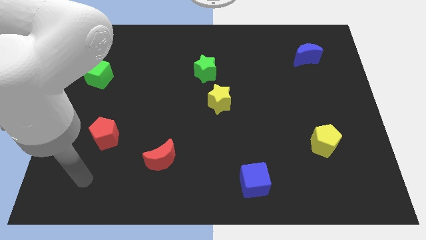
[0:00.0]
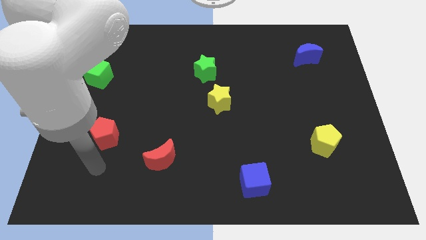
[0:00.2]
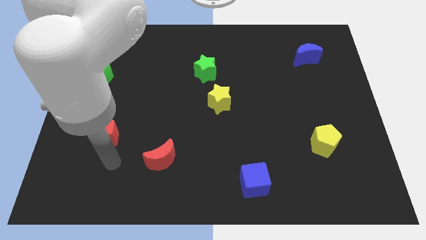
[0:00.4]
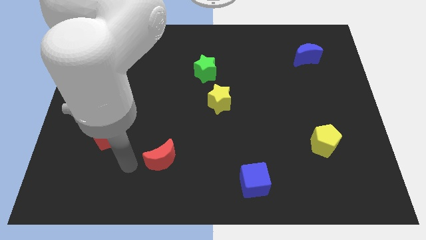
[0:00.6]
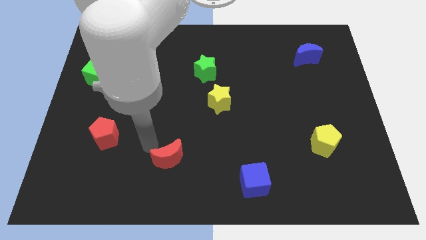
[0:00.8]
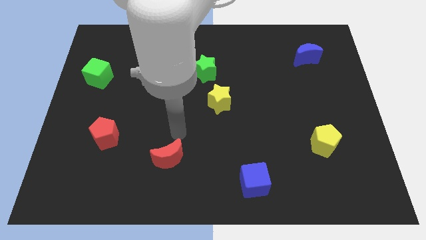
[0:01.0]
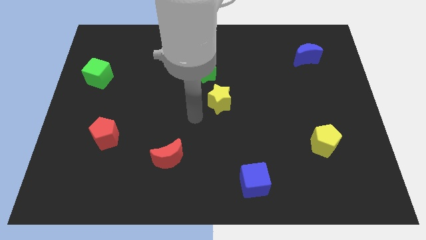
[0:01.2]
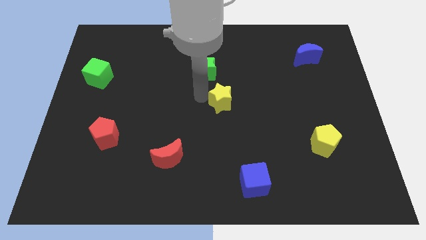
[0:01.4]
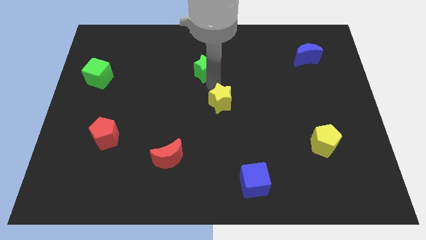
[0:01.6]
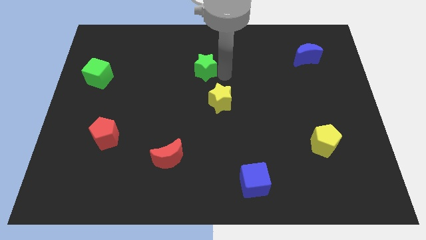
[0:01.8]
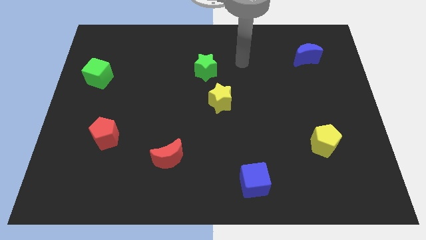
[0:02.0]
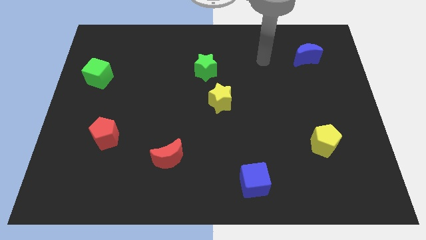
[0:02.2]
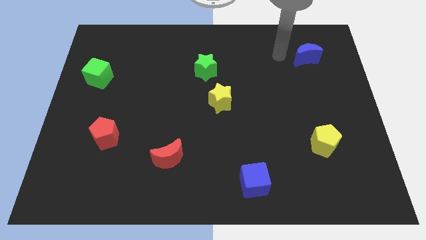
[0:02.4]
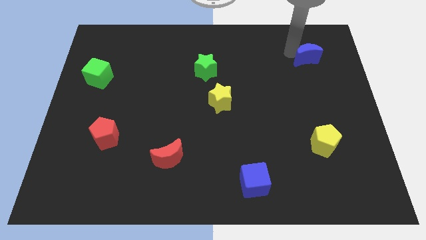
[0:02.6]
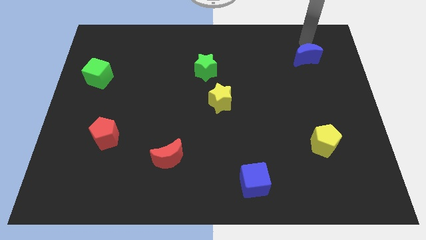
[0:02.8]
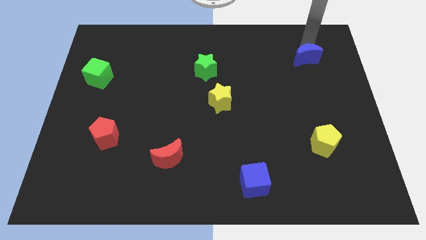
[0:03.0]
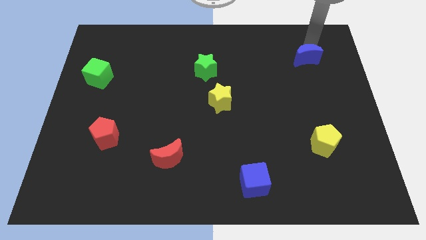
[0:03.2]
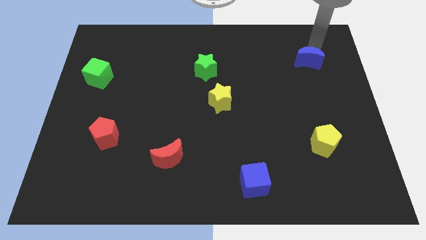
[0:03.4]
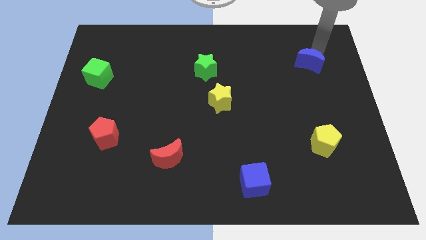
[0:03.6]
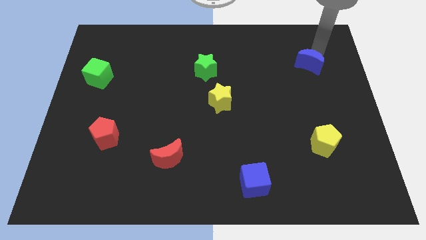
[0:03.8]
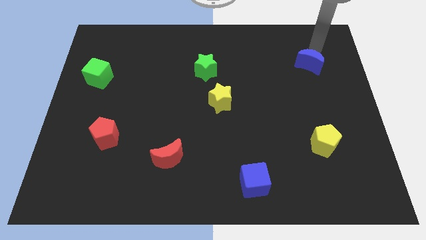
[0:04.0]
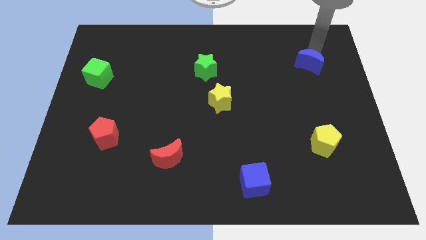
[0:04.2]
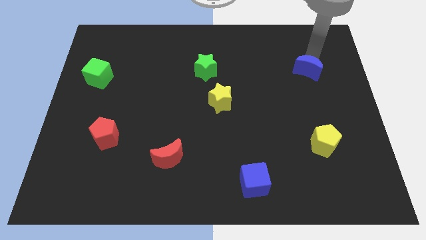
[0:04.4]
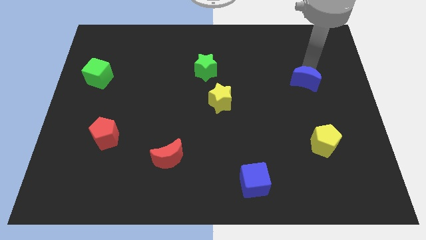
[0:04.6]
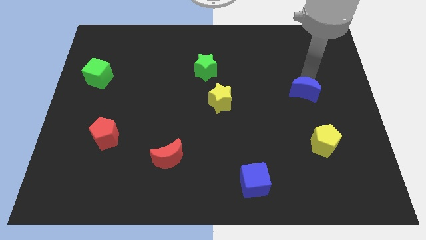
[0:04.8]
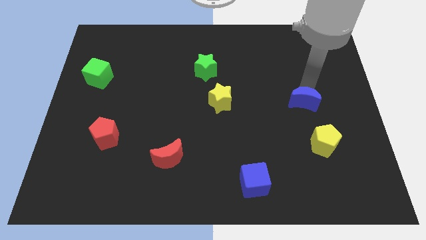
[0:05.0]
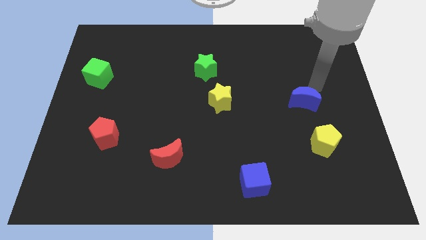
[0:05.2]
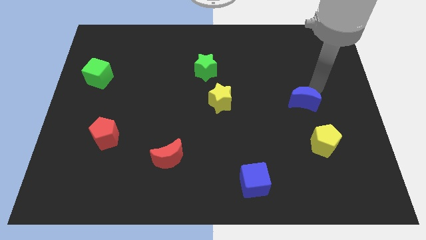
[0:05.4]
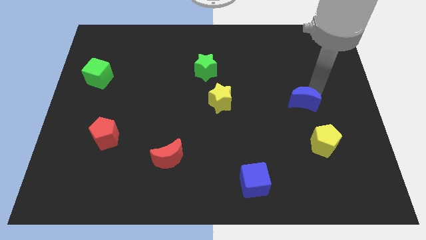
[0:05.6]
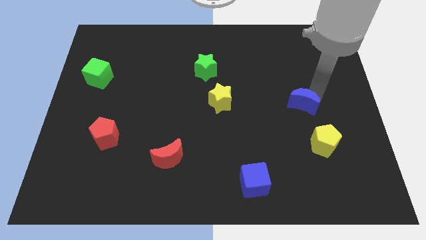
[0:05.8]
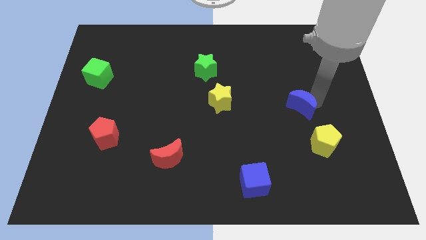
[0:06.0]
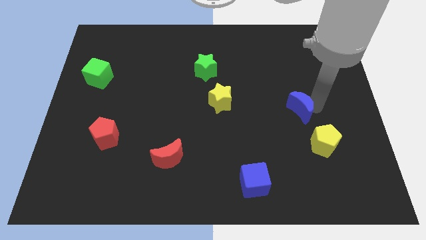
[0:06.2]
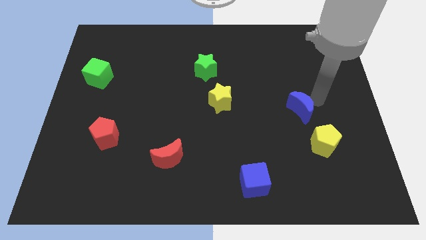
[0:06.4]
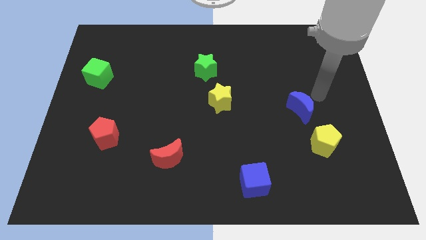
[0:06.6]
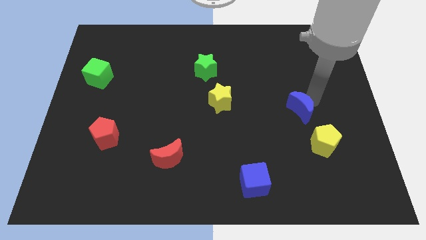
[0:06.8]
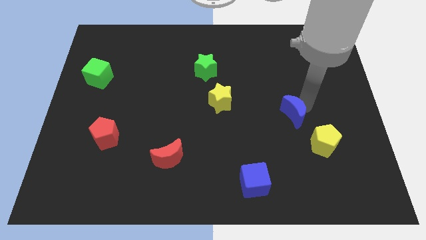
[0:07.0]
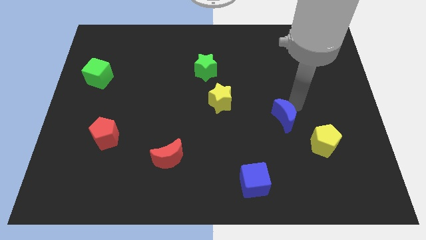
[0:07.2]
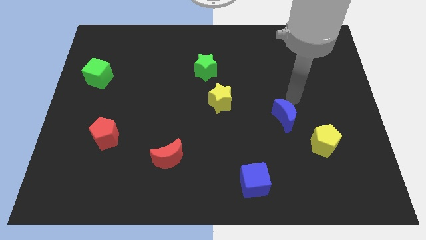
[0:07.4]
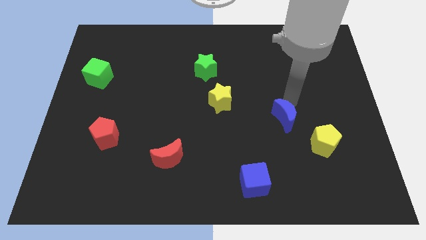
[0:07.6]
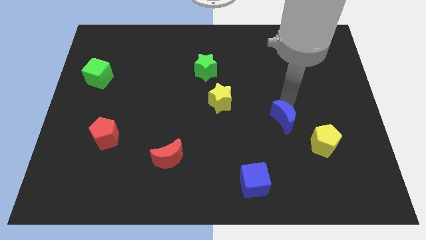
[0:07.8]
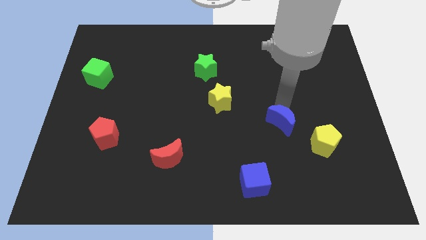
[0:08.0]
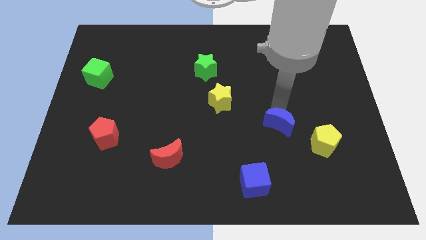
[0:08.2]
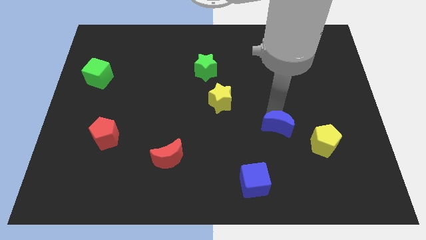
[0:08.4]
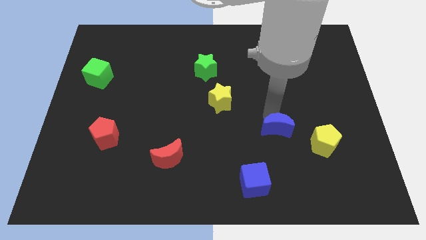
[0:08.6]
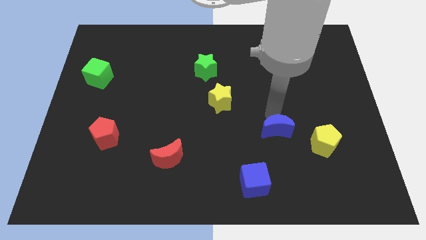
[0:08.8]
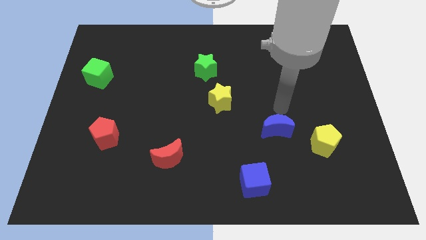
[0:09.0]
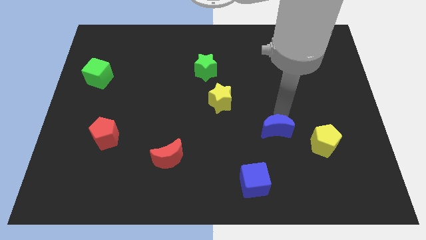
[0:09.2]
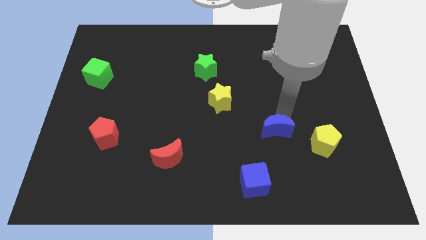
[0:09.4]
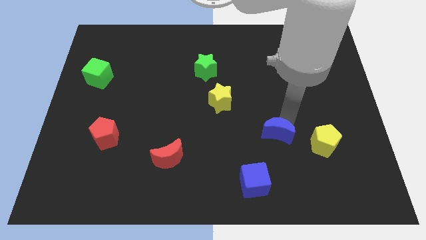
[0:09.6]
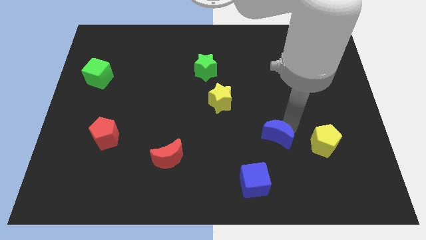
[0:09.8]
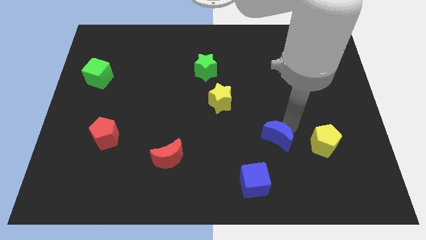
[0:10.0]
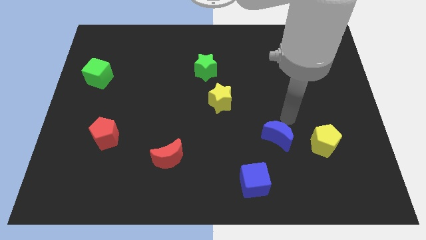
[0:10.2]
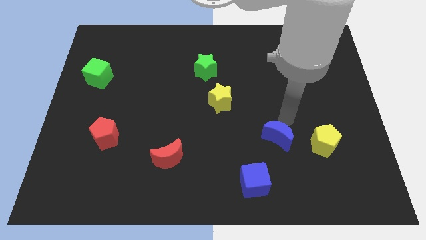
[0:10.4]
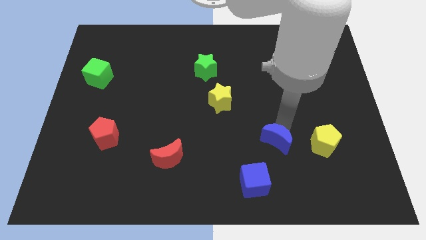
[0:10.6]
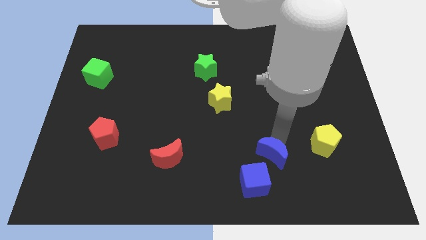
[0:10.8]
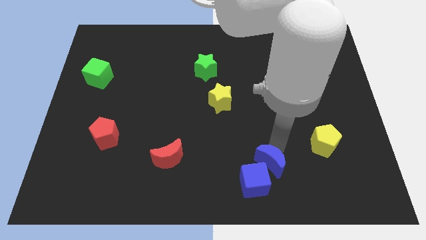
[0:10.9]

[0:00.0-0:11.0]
push the blue moon to the blue cube

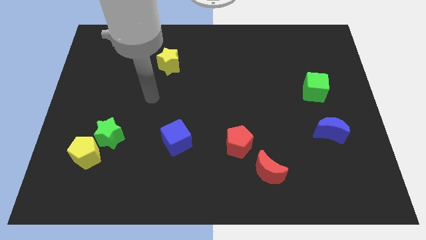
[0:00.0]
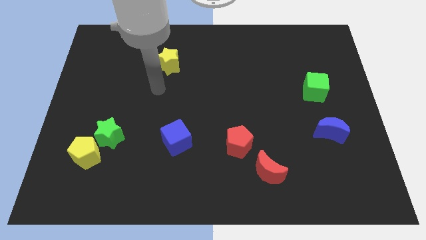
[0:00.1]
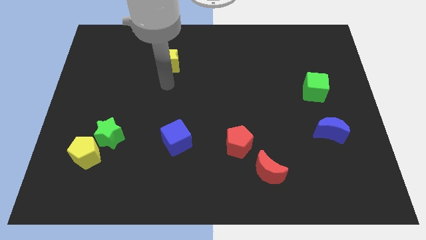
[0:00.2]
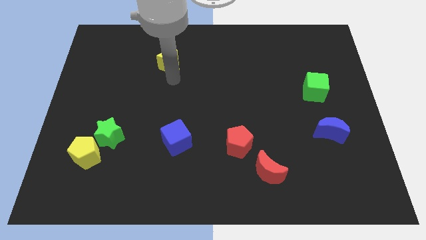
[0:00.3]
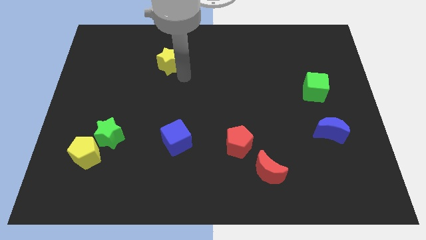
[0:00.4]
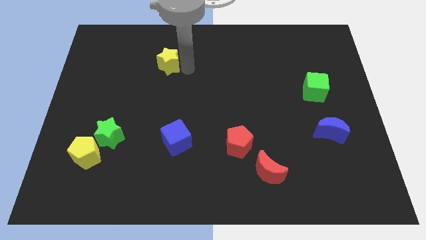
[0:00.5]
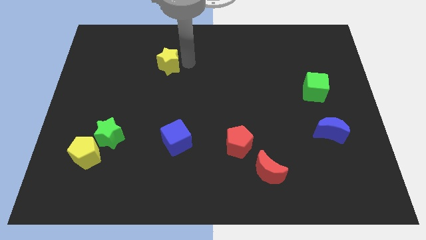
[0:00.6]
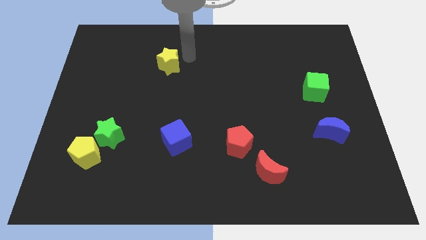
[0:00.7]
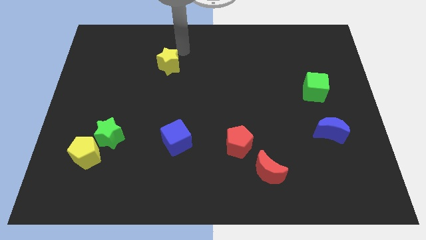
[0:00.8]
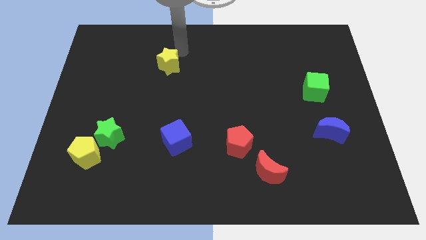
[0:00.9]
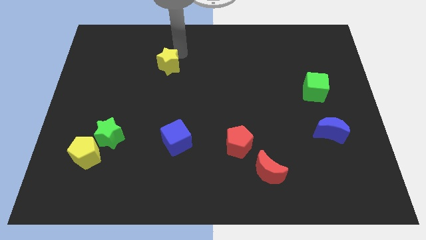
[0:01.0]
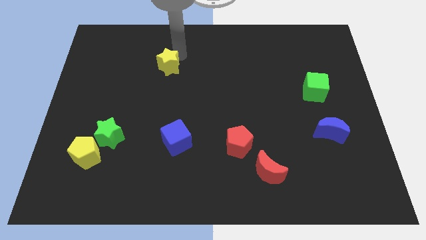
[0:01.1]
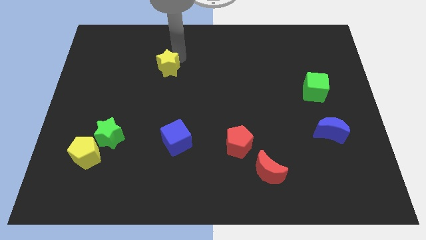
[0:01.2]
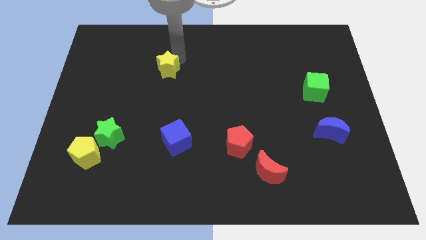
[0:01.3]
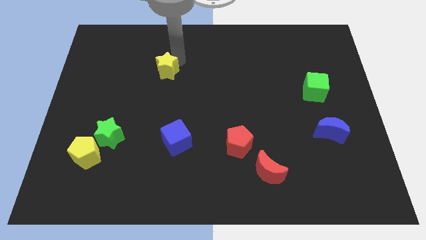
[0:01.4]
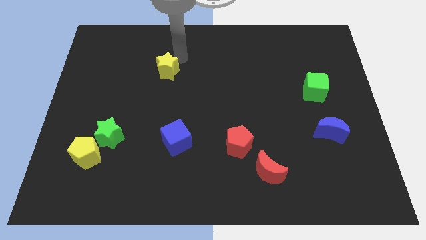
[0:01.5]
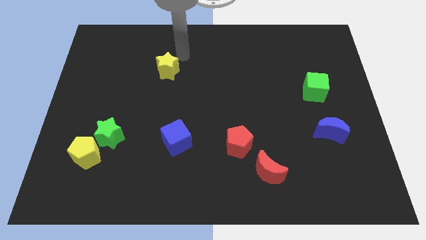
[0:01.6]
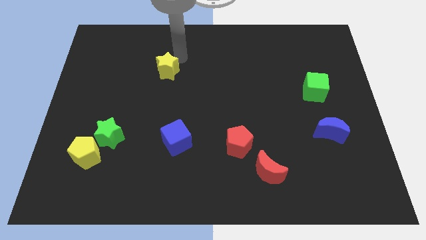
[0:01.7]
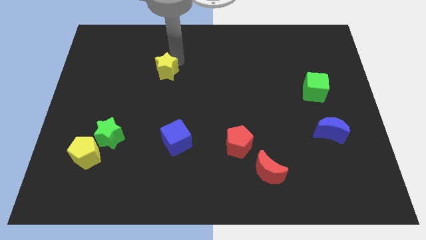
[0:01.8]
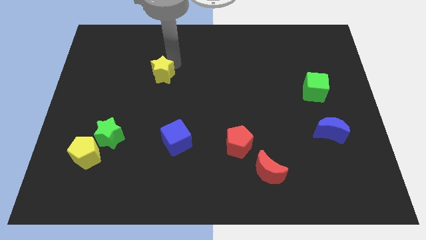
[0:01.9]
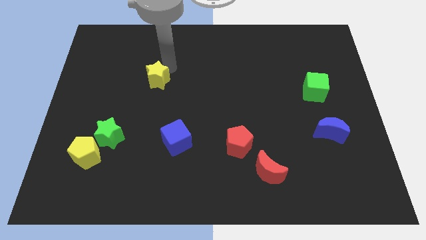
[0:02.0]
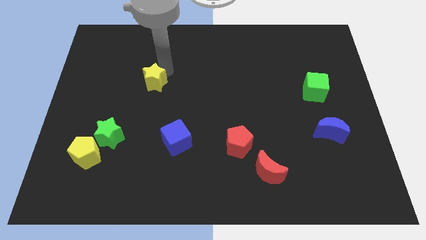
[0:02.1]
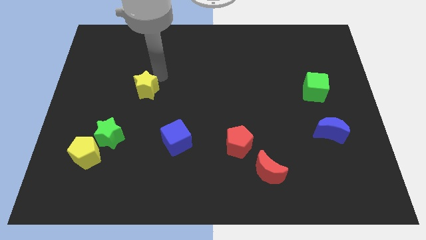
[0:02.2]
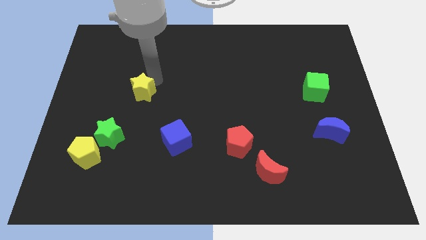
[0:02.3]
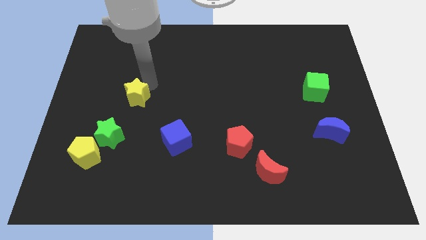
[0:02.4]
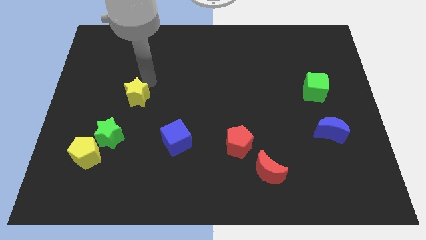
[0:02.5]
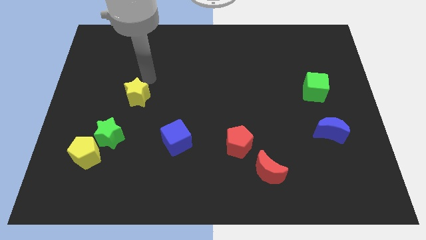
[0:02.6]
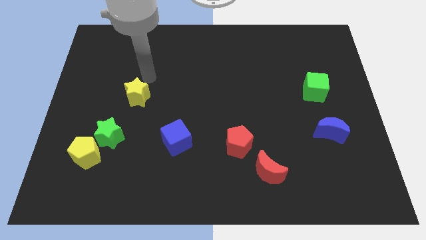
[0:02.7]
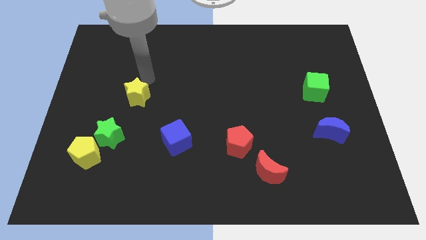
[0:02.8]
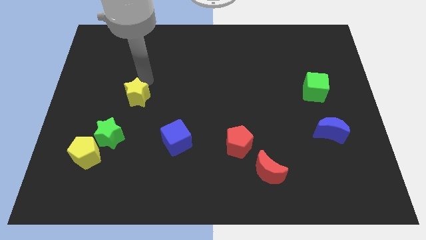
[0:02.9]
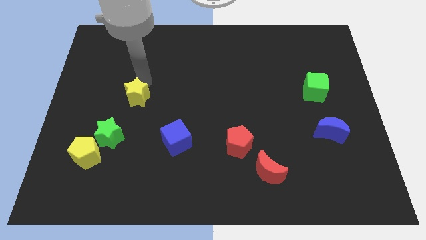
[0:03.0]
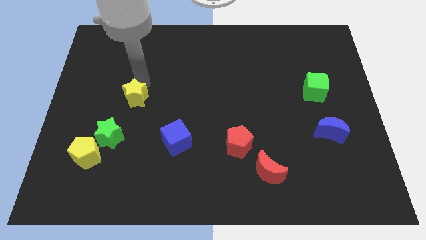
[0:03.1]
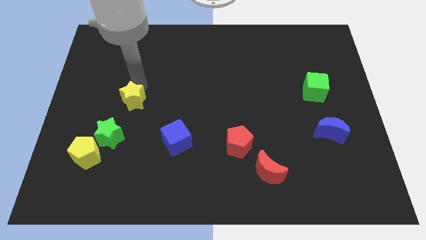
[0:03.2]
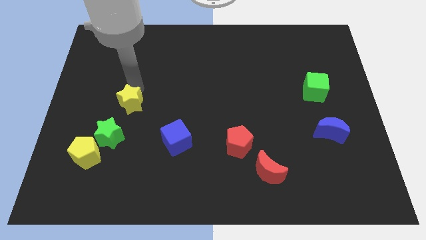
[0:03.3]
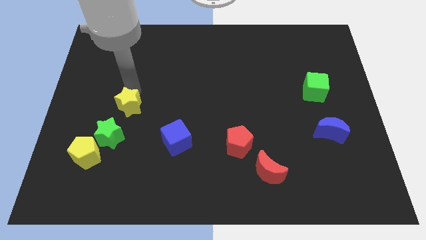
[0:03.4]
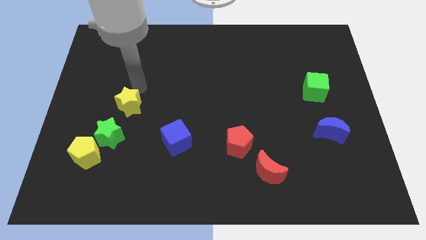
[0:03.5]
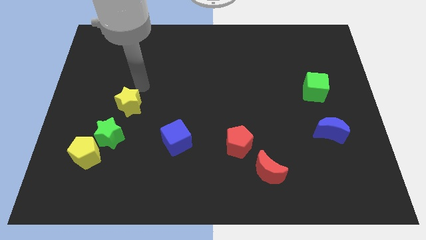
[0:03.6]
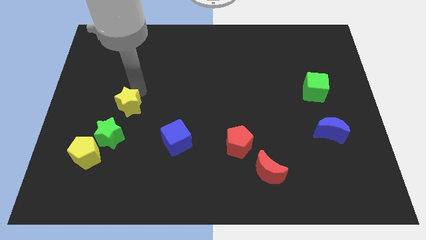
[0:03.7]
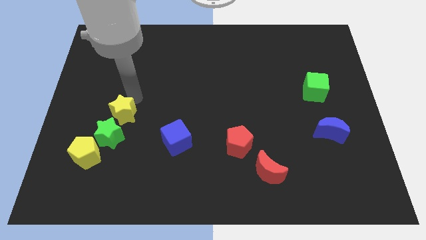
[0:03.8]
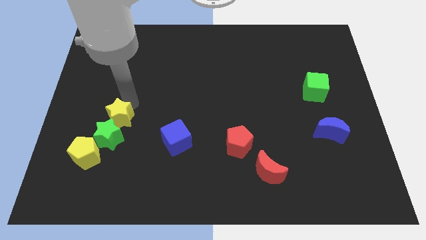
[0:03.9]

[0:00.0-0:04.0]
put the yellow star close to the green star
